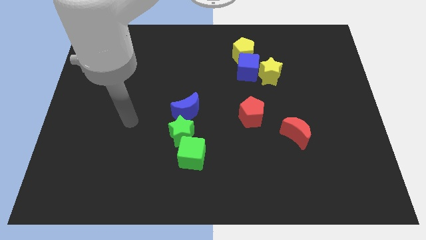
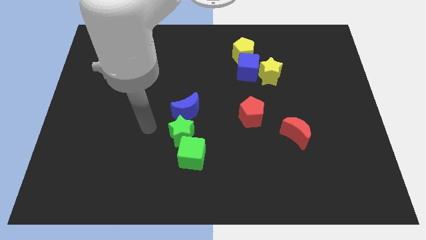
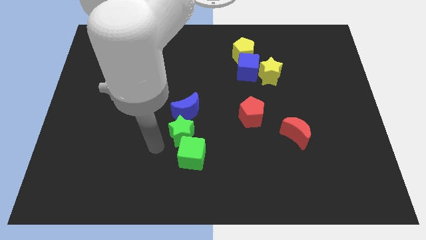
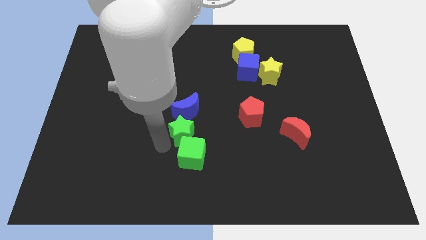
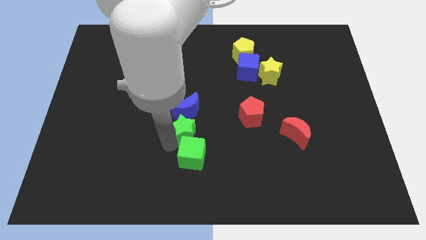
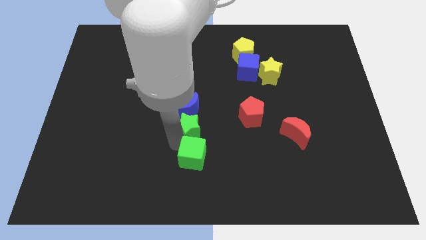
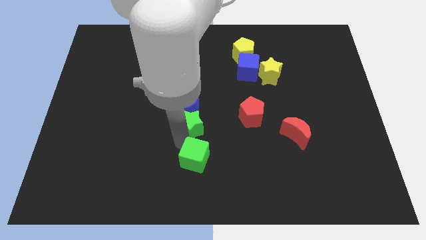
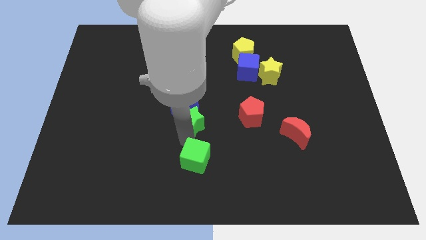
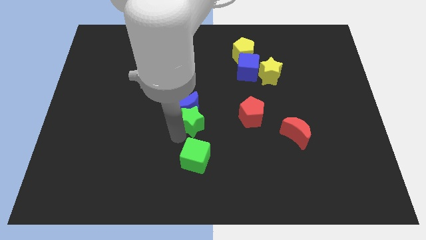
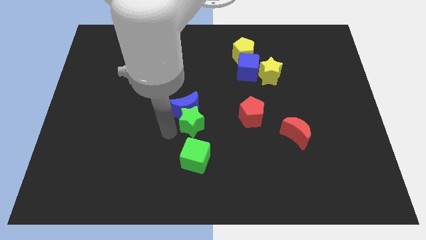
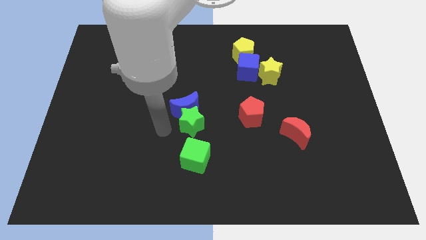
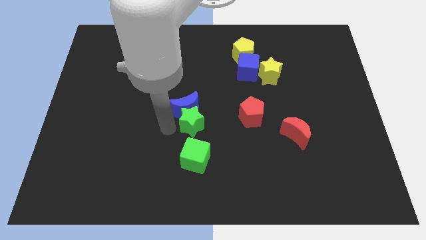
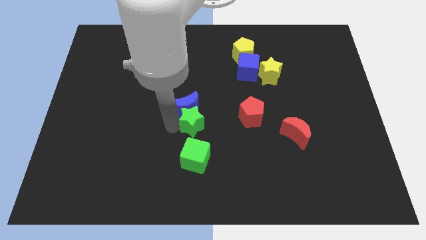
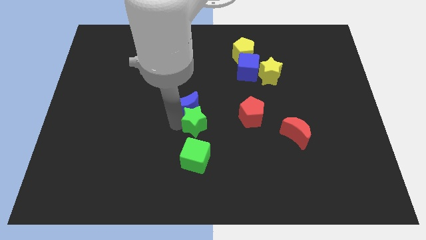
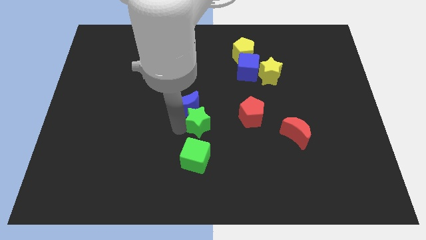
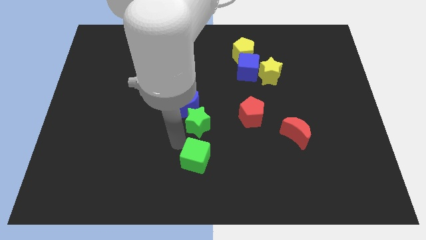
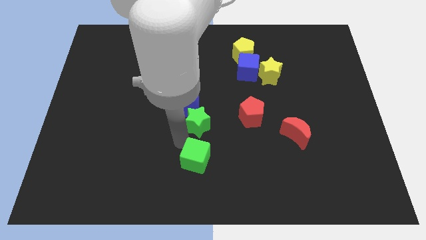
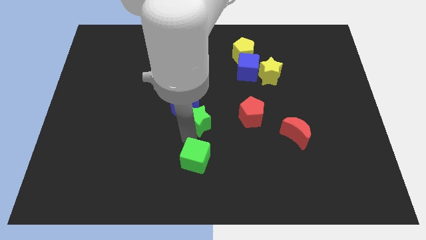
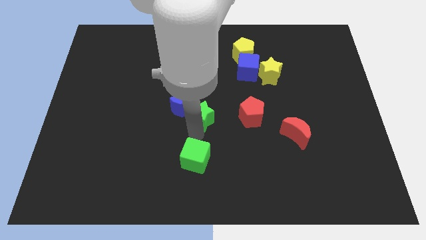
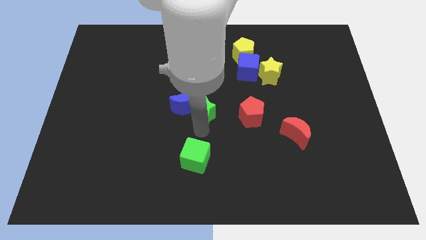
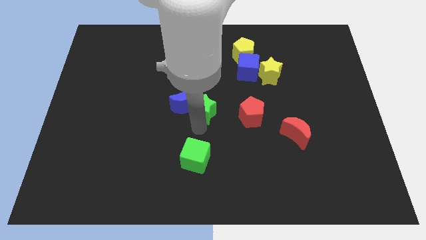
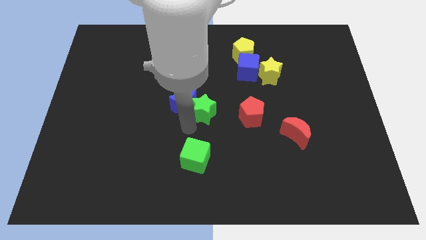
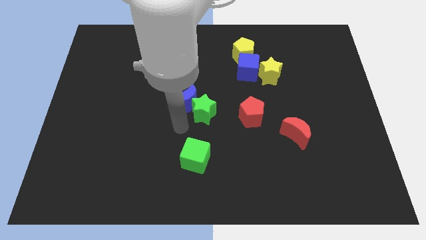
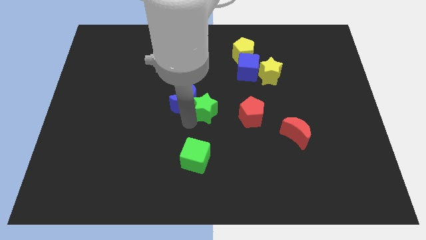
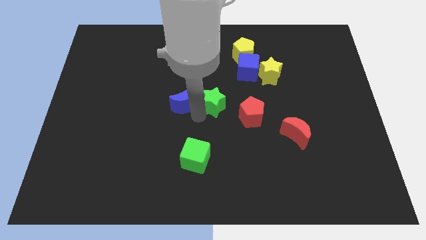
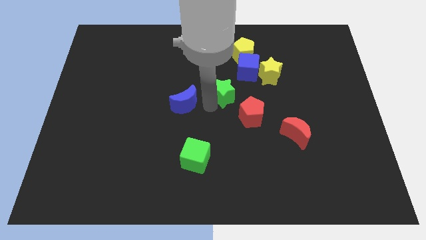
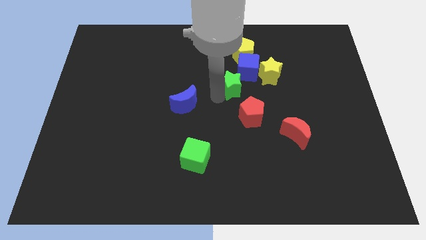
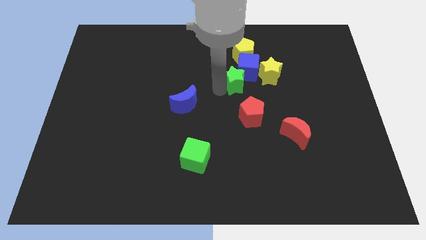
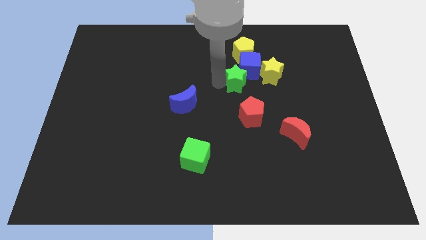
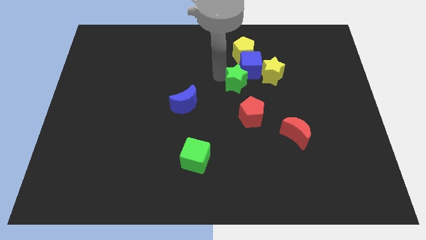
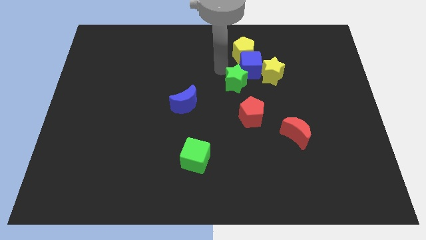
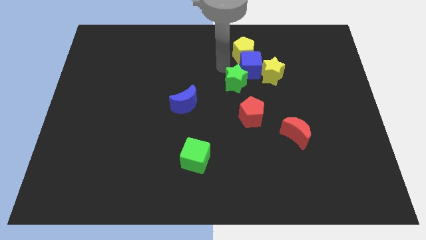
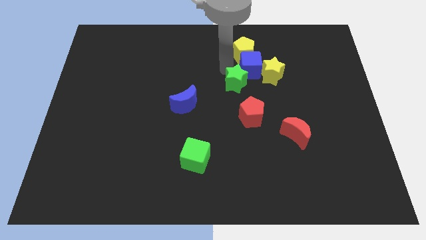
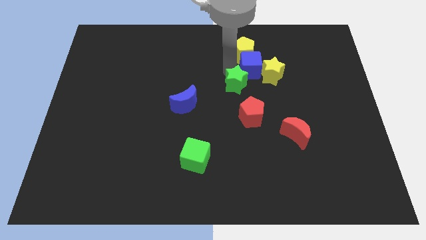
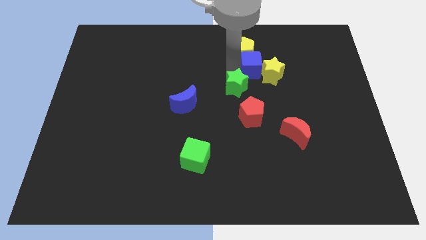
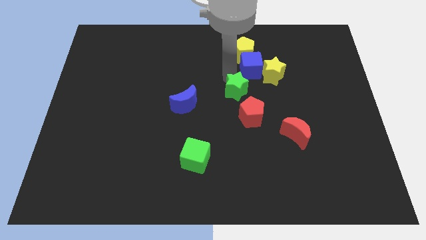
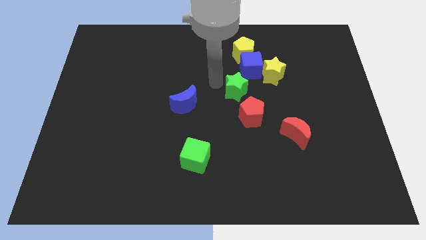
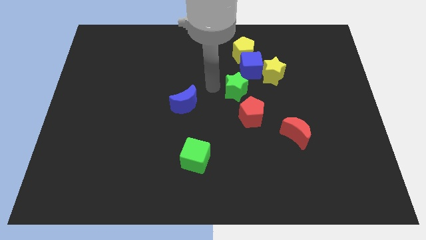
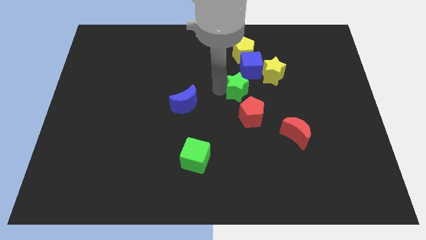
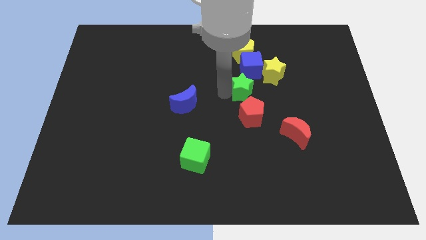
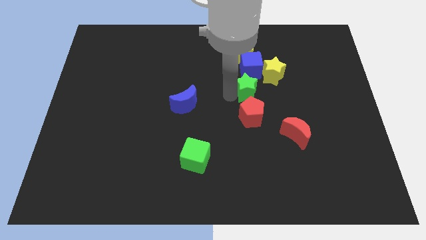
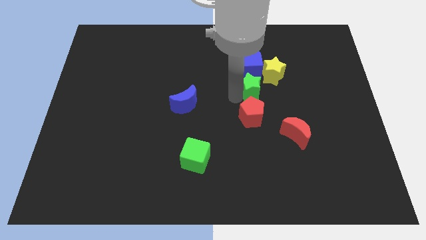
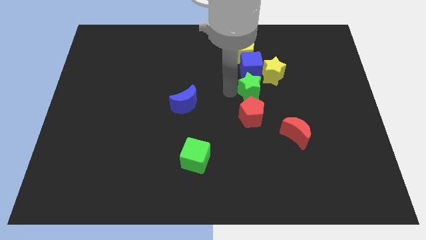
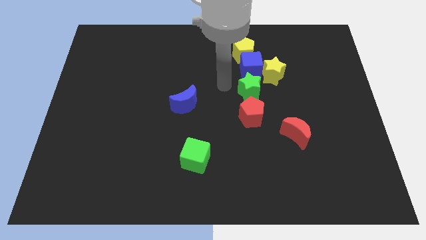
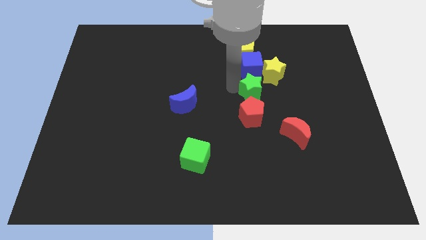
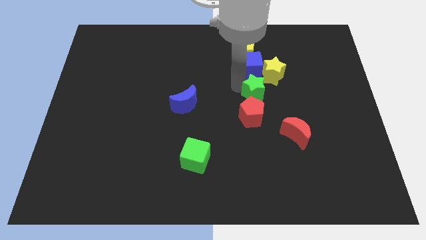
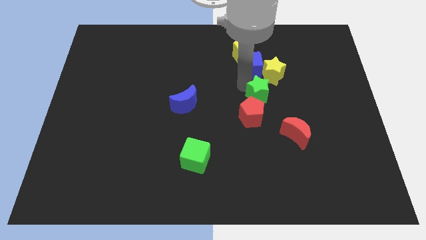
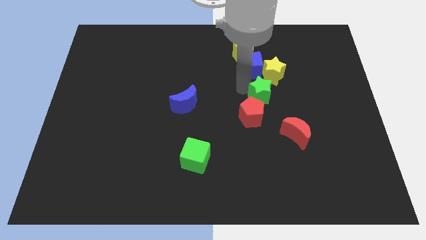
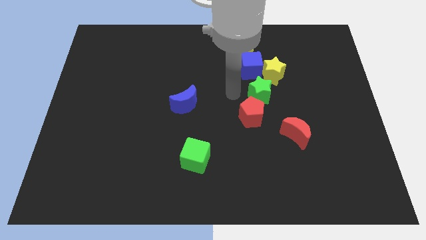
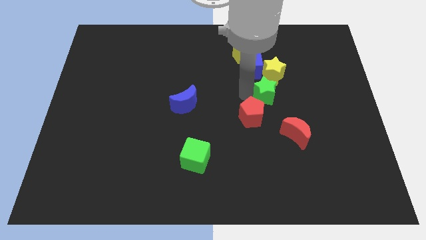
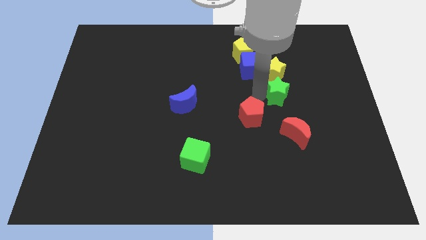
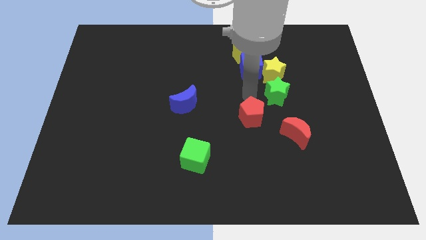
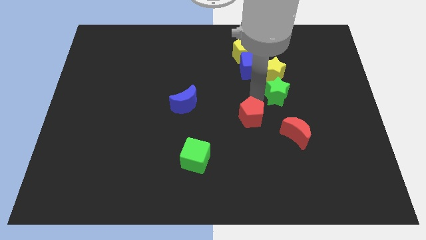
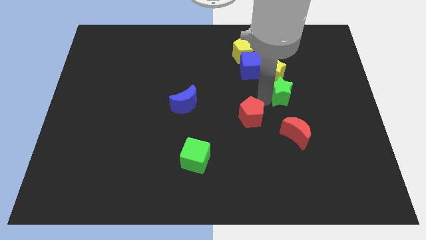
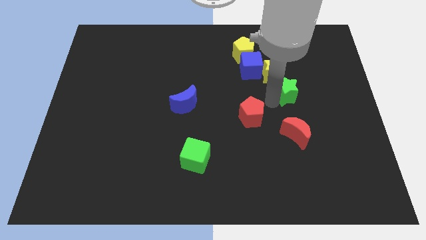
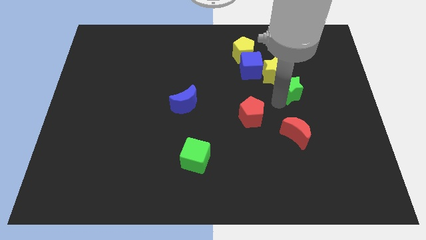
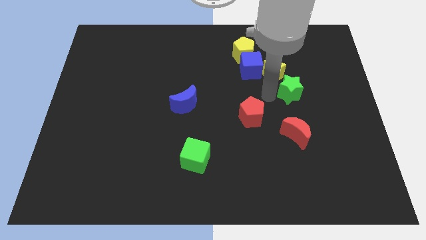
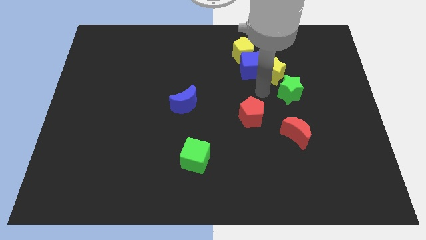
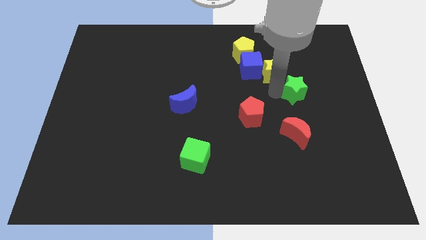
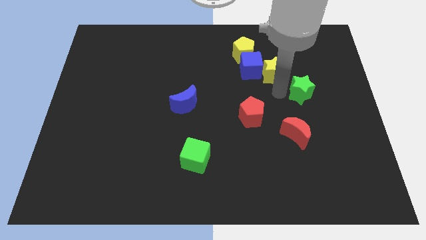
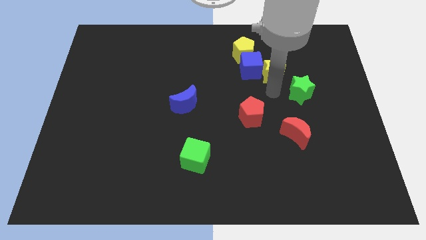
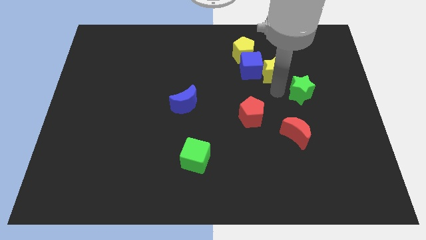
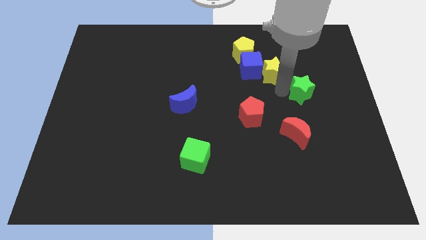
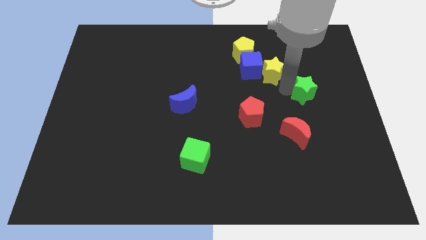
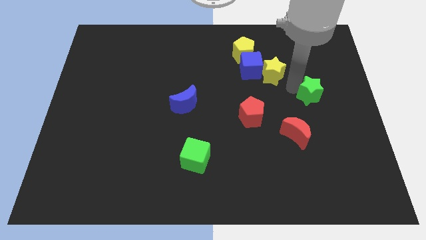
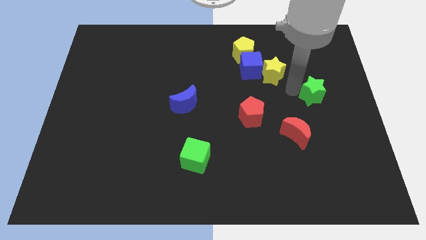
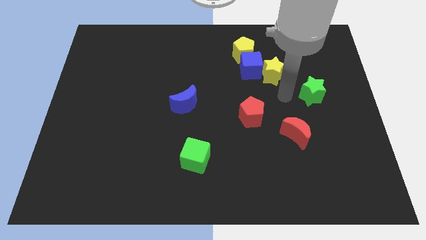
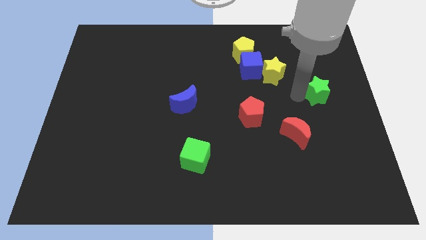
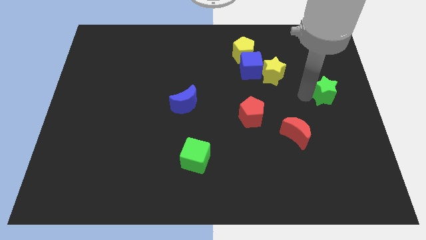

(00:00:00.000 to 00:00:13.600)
move the green star to the right side of the board
